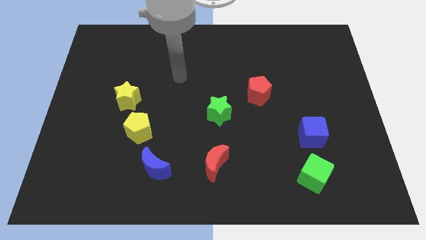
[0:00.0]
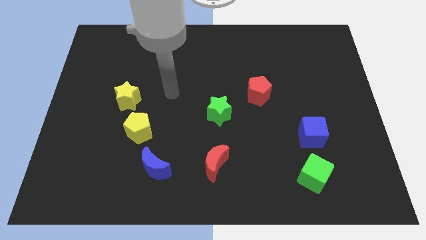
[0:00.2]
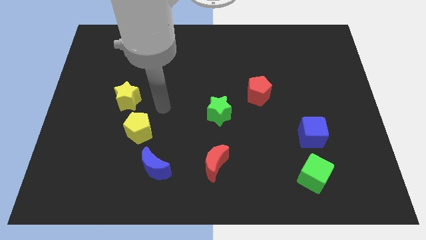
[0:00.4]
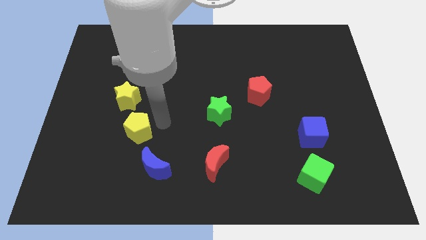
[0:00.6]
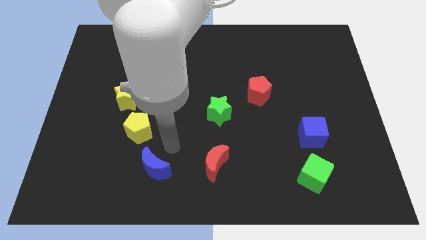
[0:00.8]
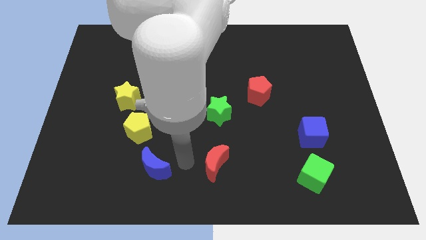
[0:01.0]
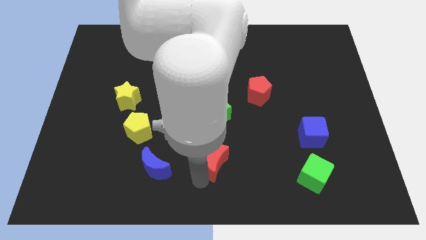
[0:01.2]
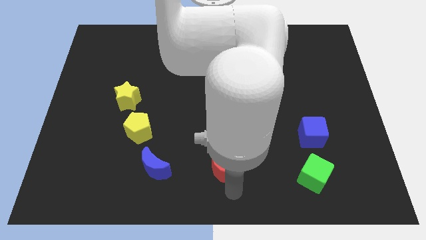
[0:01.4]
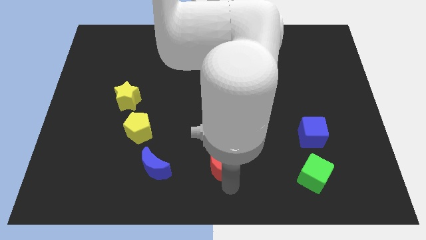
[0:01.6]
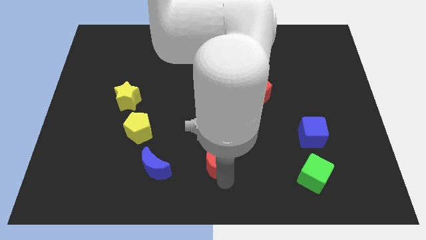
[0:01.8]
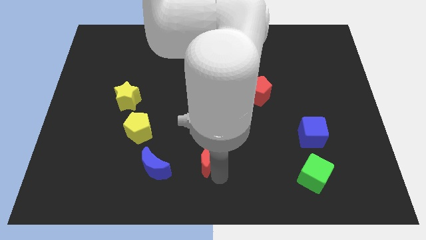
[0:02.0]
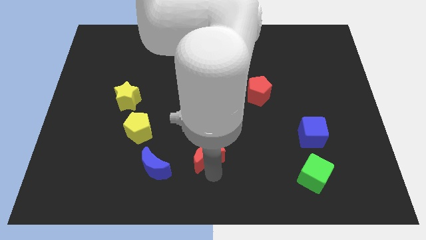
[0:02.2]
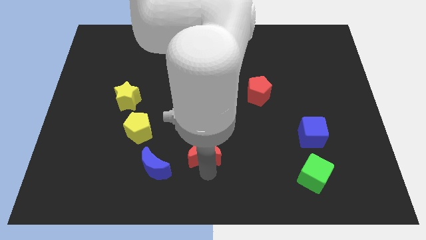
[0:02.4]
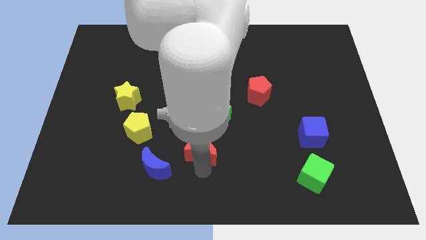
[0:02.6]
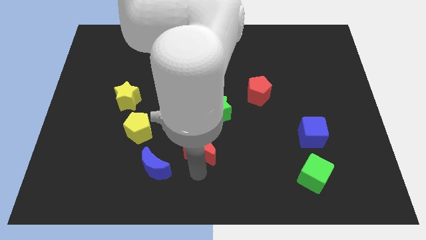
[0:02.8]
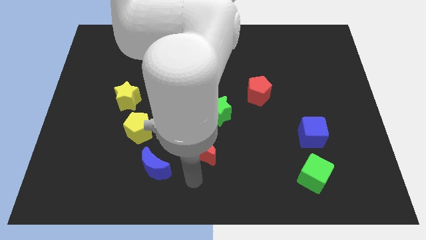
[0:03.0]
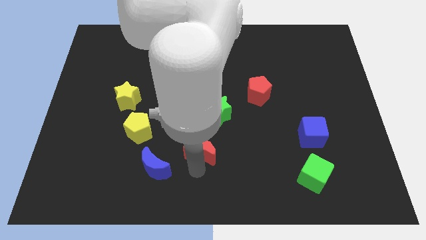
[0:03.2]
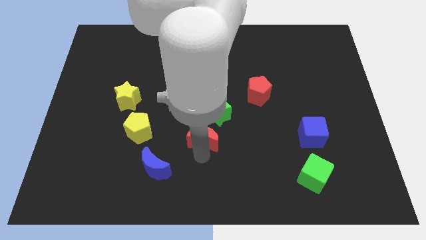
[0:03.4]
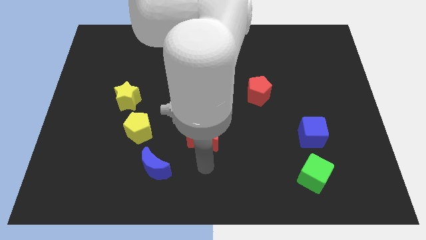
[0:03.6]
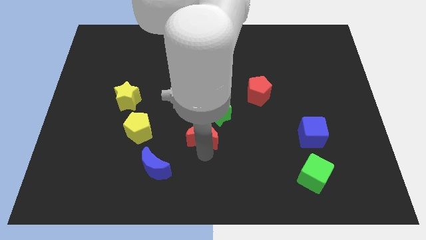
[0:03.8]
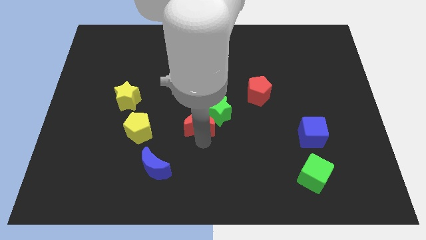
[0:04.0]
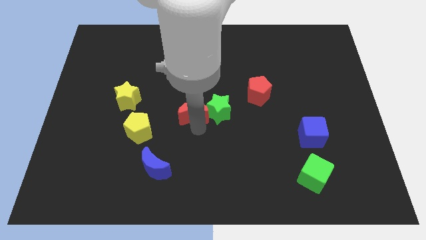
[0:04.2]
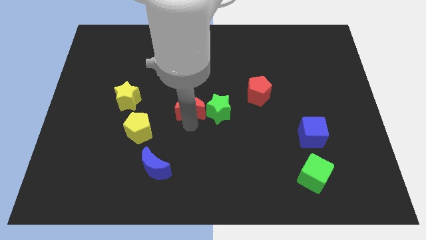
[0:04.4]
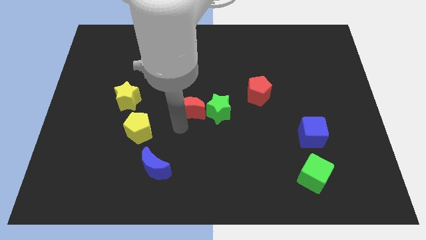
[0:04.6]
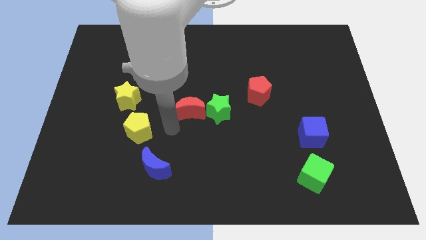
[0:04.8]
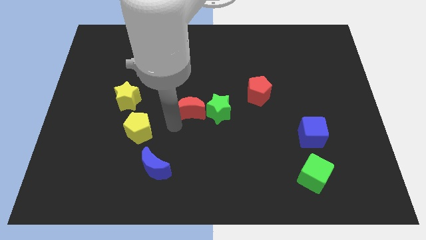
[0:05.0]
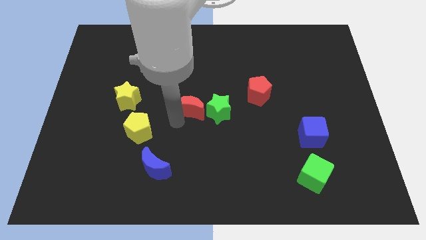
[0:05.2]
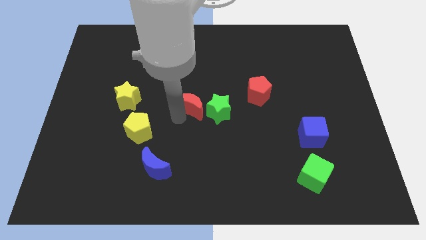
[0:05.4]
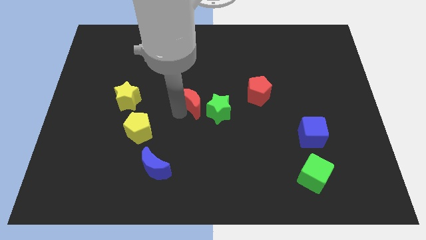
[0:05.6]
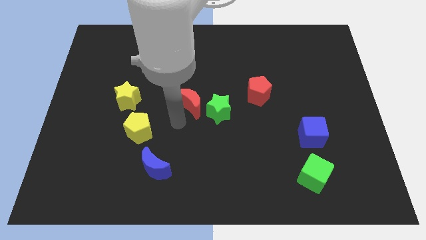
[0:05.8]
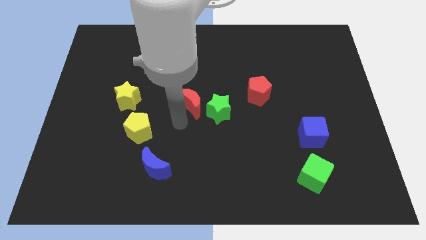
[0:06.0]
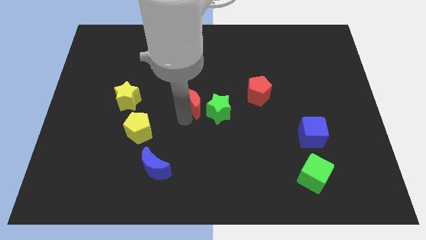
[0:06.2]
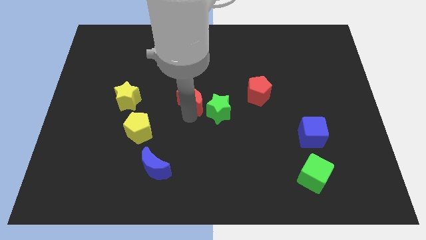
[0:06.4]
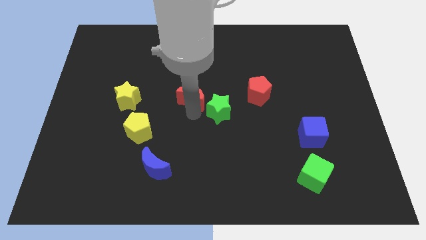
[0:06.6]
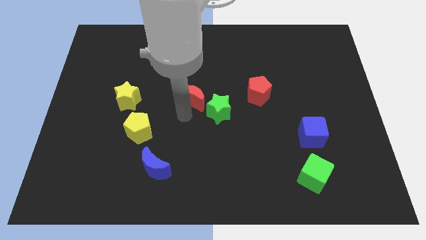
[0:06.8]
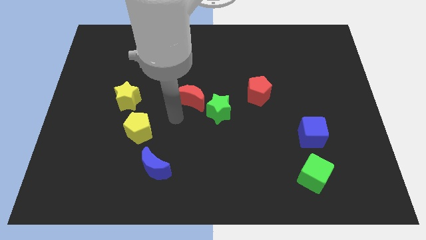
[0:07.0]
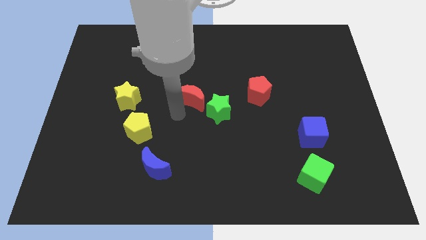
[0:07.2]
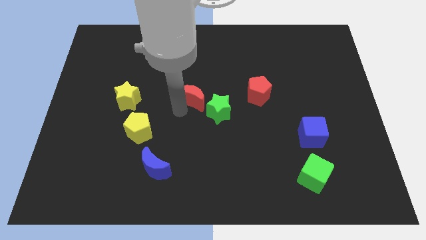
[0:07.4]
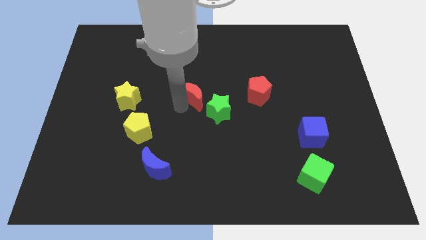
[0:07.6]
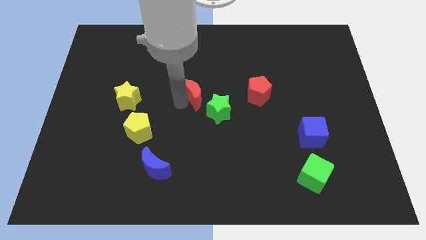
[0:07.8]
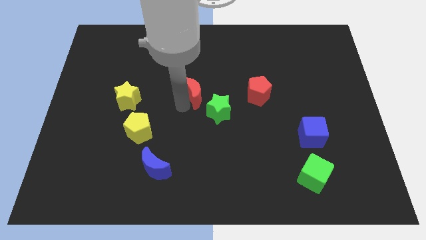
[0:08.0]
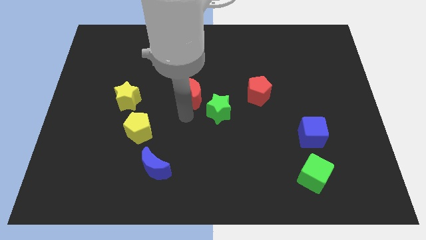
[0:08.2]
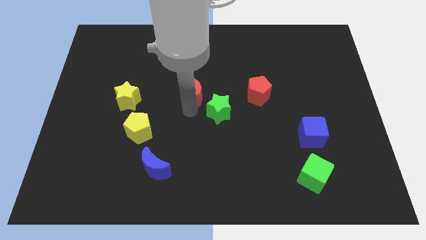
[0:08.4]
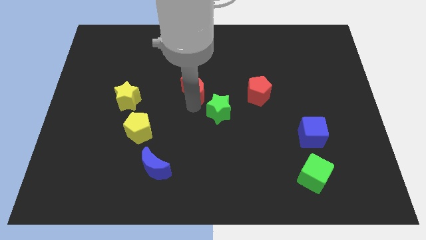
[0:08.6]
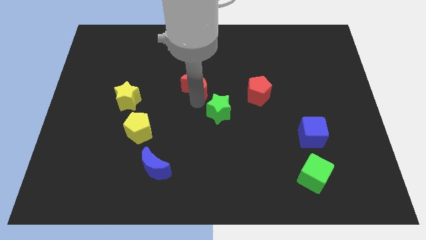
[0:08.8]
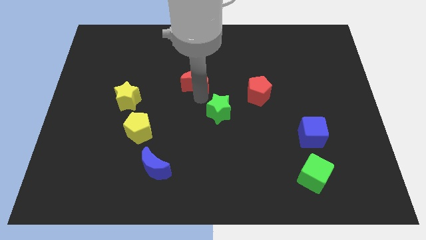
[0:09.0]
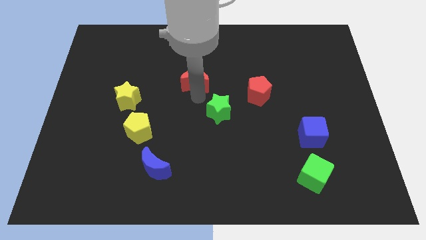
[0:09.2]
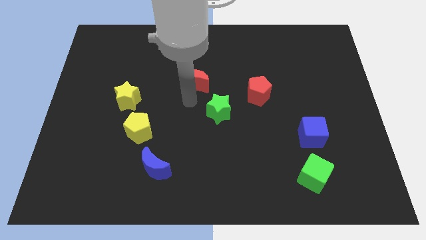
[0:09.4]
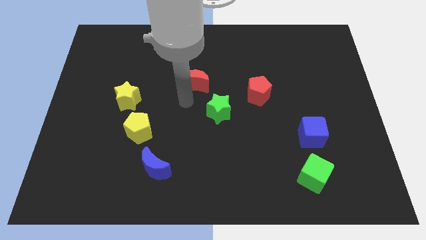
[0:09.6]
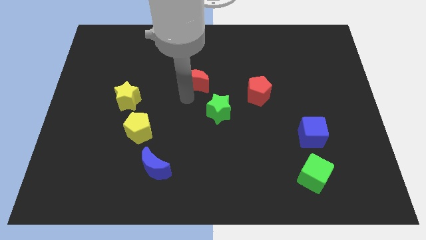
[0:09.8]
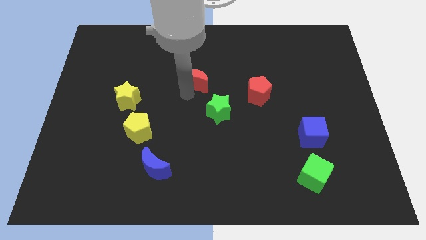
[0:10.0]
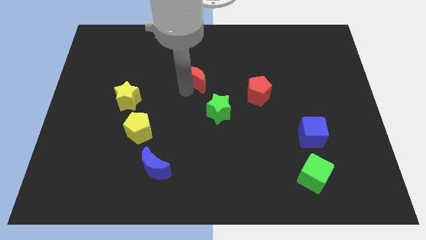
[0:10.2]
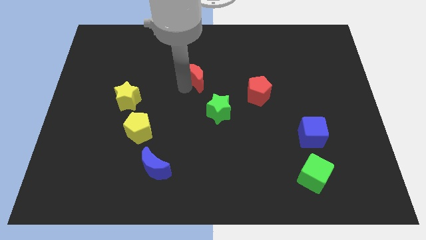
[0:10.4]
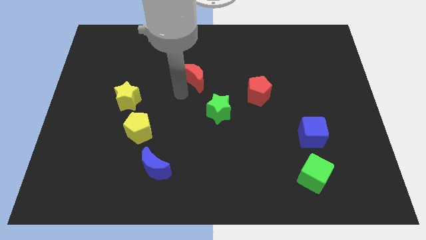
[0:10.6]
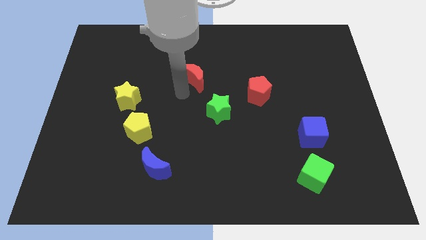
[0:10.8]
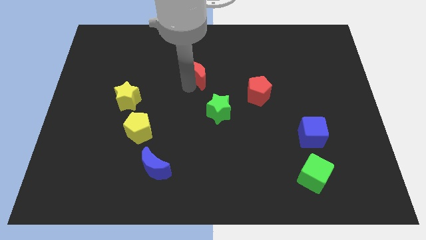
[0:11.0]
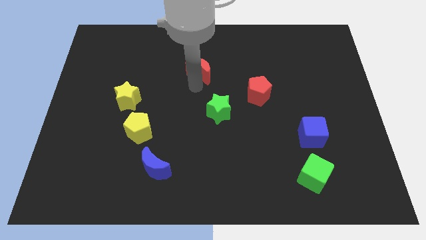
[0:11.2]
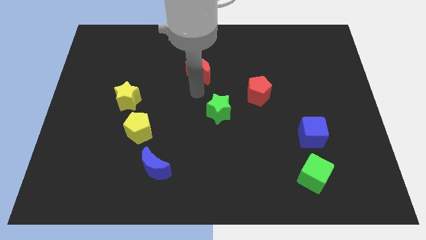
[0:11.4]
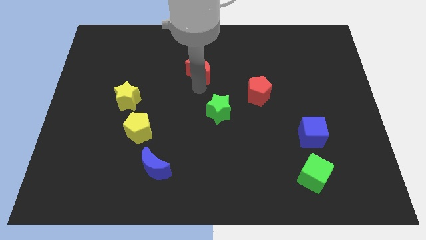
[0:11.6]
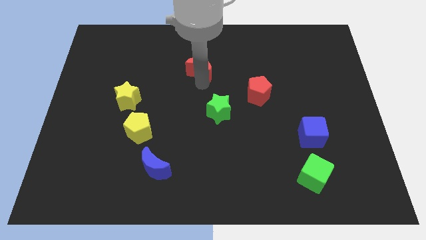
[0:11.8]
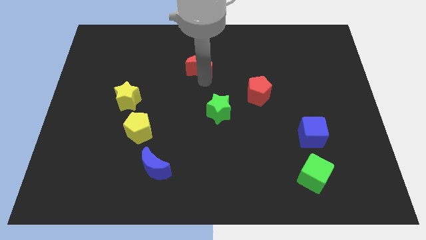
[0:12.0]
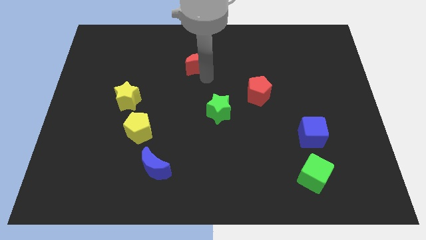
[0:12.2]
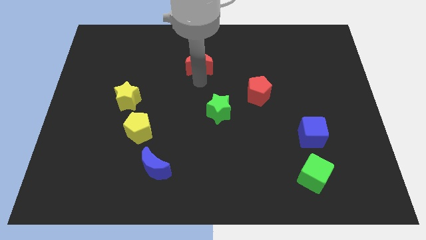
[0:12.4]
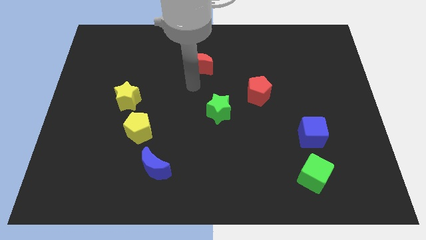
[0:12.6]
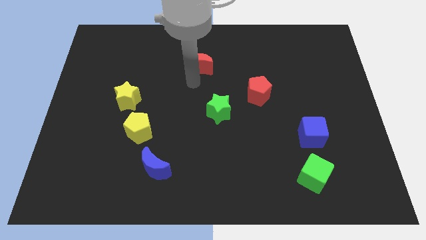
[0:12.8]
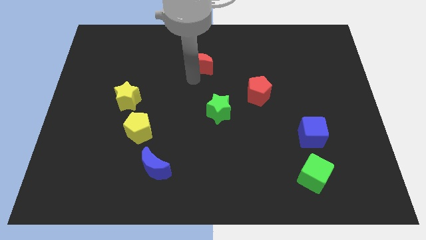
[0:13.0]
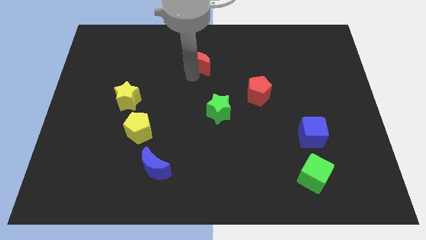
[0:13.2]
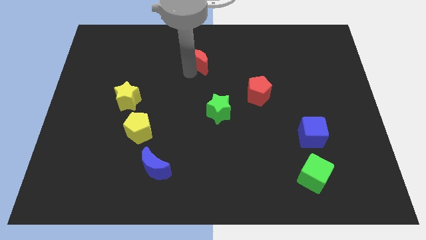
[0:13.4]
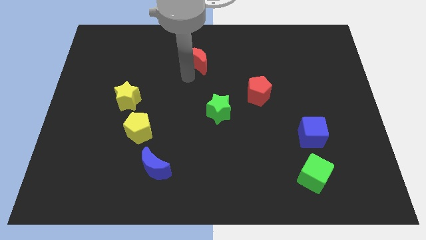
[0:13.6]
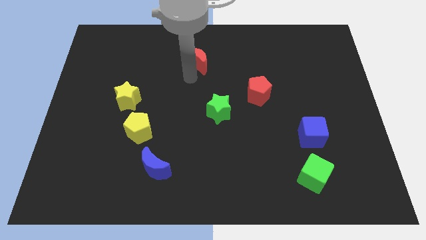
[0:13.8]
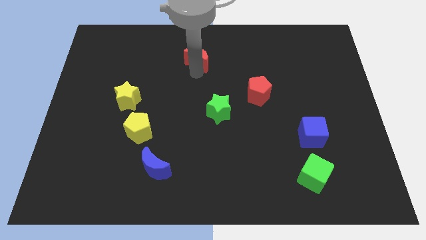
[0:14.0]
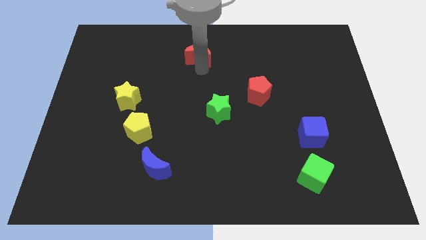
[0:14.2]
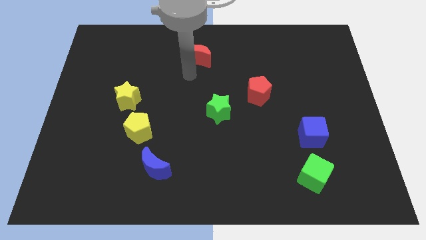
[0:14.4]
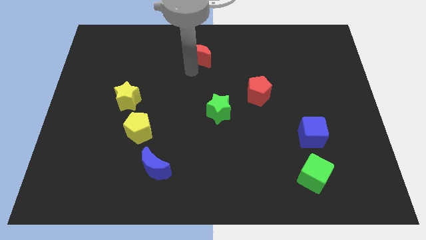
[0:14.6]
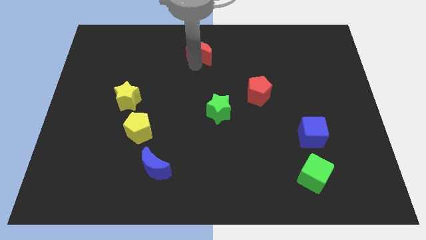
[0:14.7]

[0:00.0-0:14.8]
put the red moon to the towards your base
